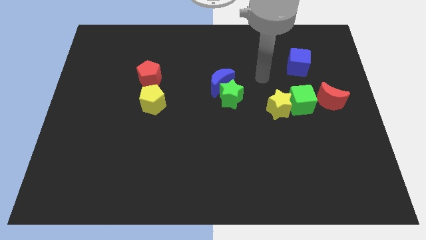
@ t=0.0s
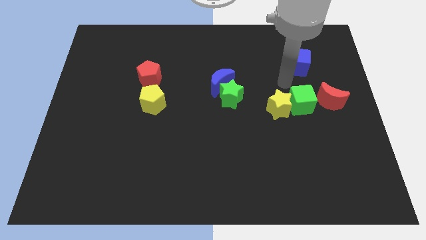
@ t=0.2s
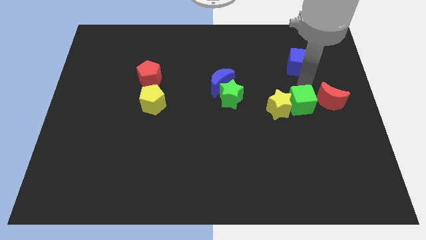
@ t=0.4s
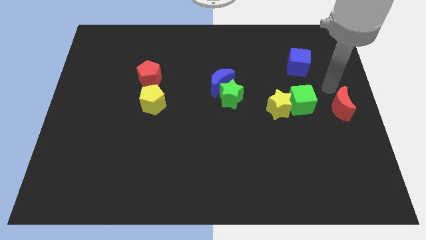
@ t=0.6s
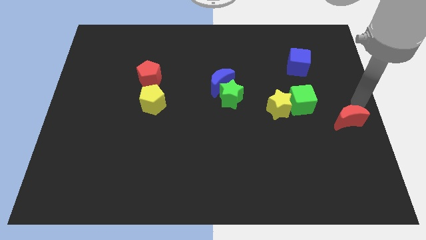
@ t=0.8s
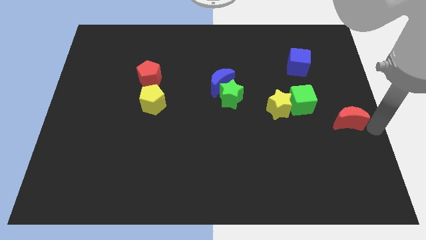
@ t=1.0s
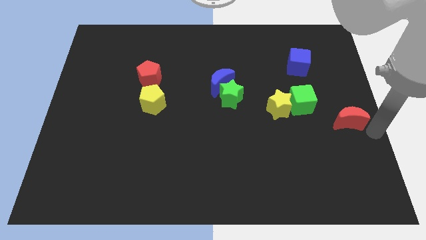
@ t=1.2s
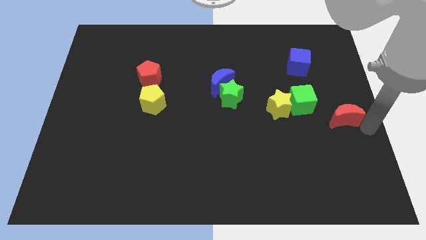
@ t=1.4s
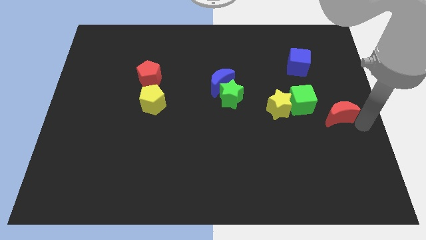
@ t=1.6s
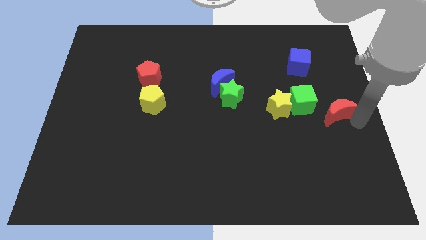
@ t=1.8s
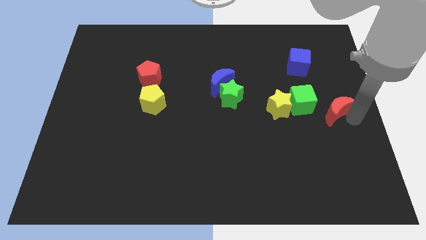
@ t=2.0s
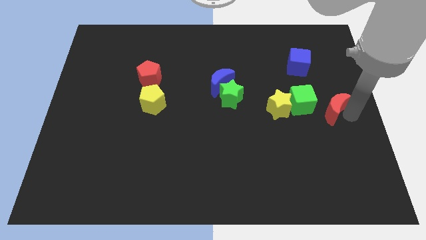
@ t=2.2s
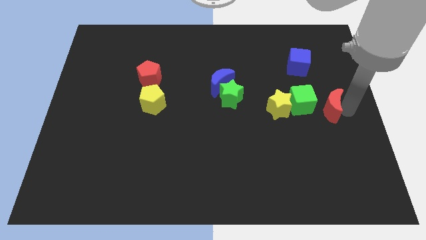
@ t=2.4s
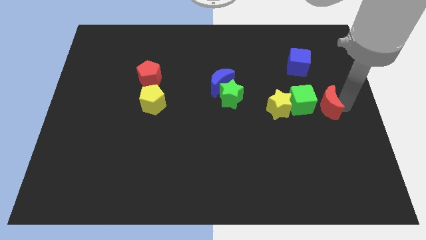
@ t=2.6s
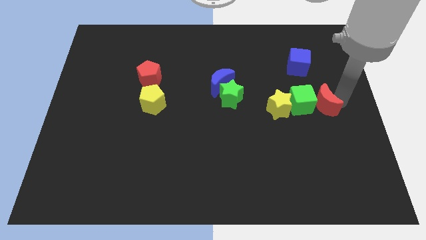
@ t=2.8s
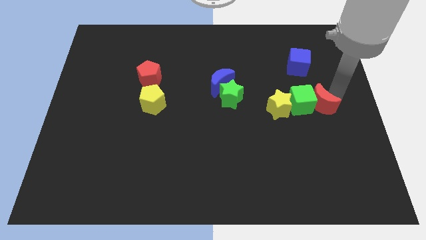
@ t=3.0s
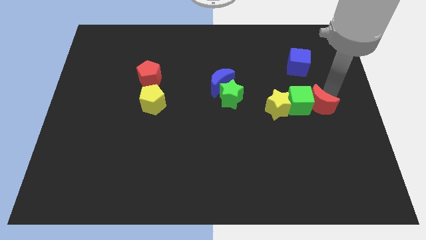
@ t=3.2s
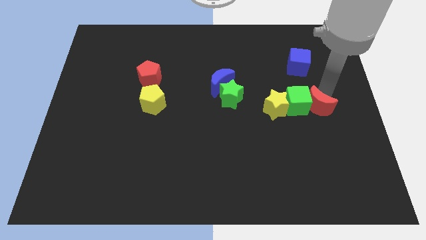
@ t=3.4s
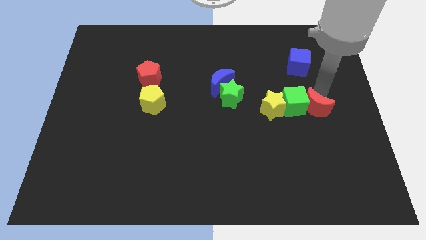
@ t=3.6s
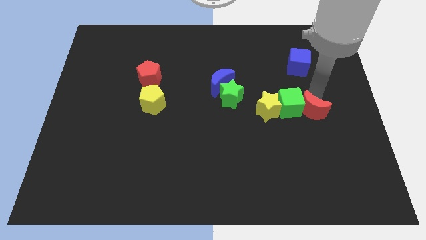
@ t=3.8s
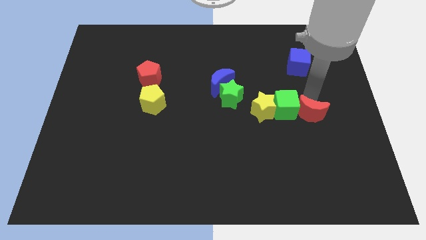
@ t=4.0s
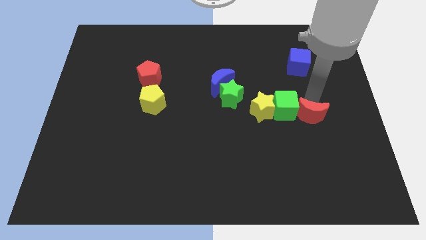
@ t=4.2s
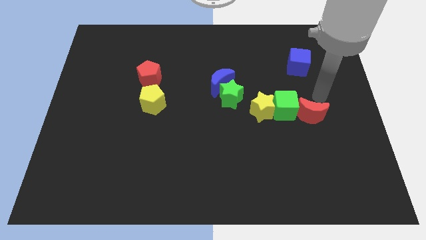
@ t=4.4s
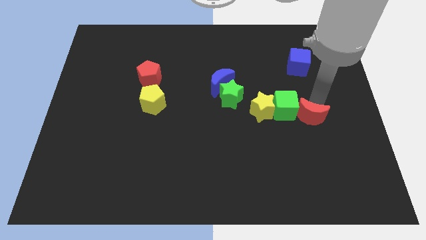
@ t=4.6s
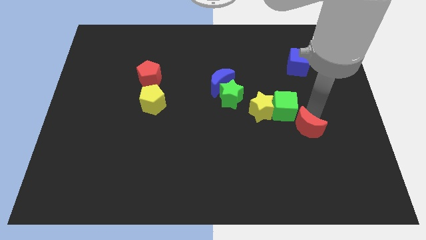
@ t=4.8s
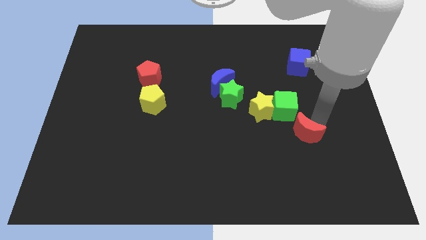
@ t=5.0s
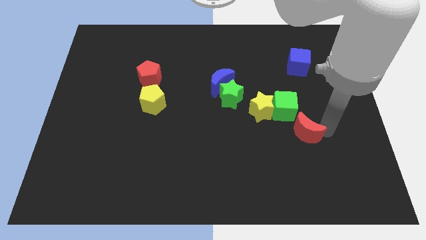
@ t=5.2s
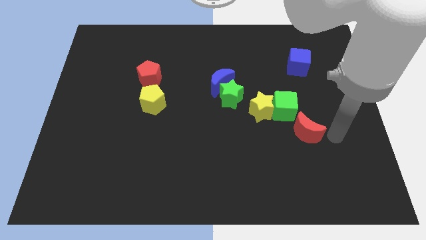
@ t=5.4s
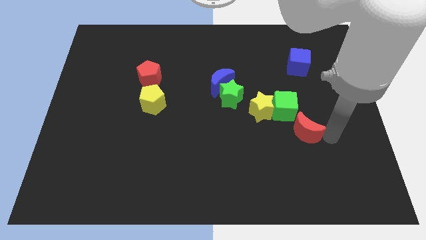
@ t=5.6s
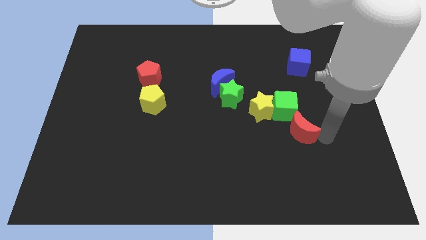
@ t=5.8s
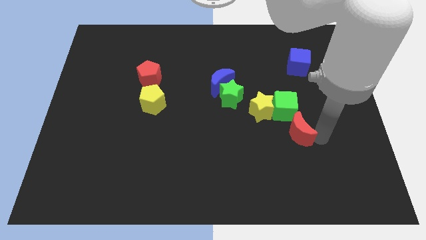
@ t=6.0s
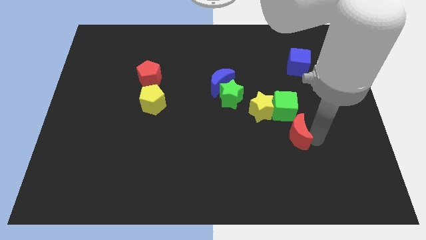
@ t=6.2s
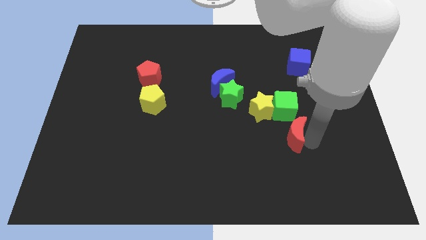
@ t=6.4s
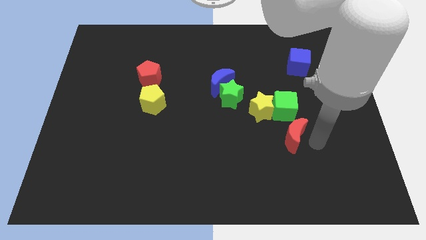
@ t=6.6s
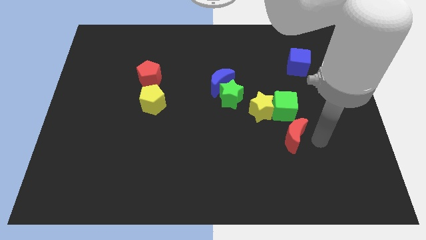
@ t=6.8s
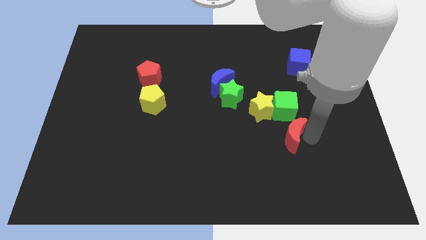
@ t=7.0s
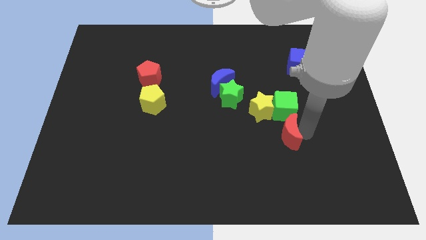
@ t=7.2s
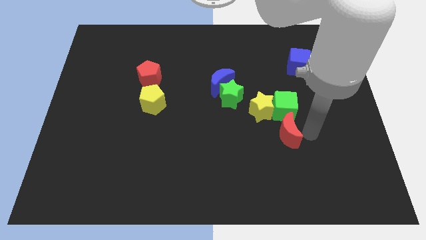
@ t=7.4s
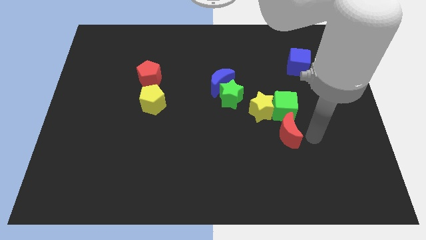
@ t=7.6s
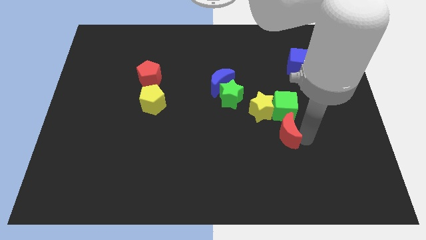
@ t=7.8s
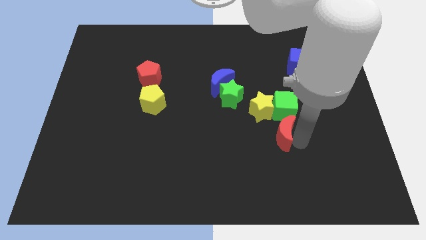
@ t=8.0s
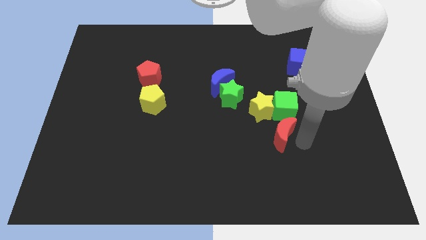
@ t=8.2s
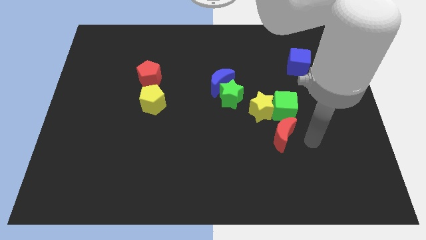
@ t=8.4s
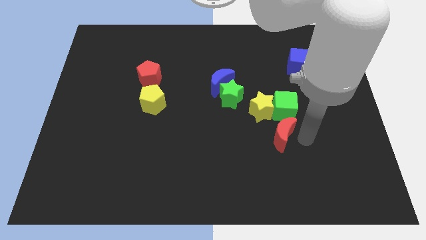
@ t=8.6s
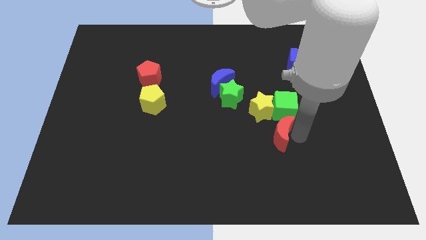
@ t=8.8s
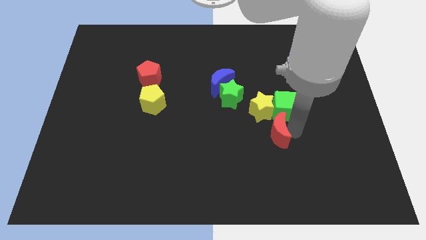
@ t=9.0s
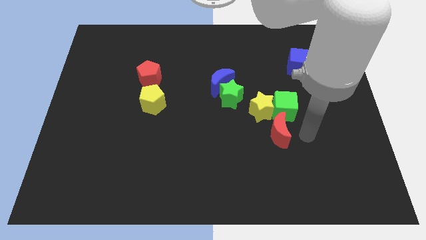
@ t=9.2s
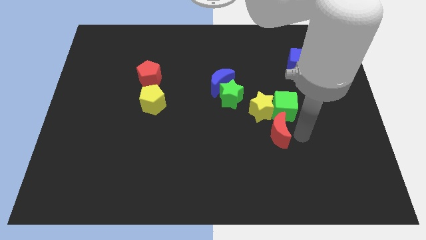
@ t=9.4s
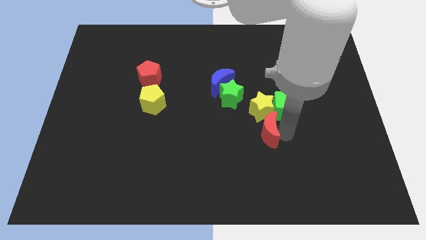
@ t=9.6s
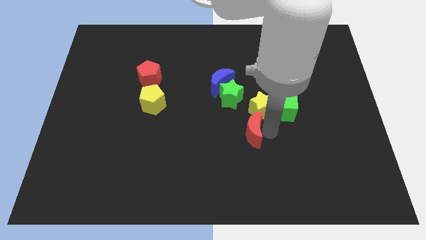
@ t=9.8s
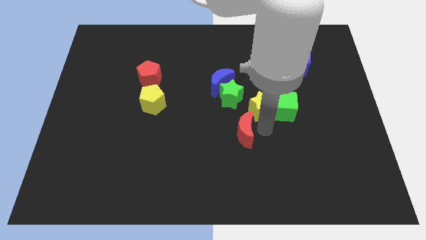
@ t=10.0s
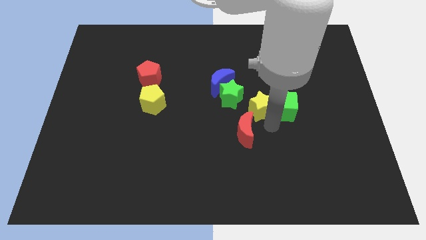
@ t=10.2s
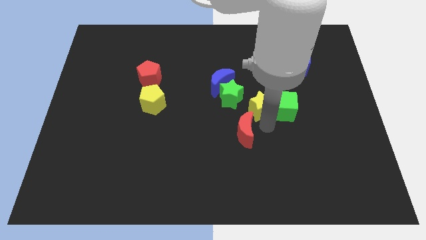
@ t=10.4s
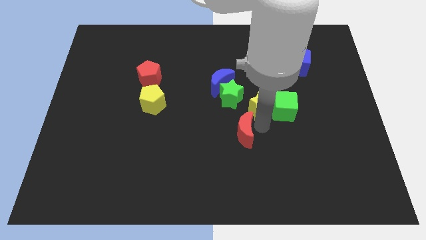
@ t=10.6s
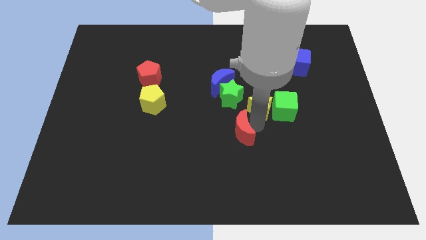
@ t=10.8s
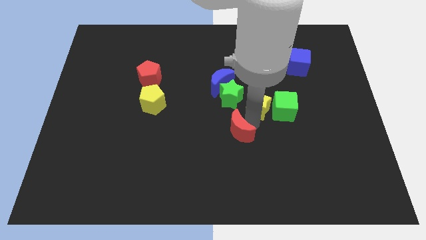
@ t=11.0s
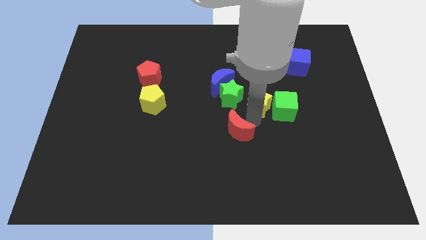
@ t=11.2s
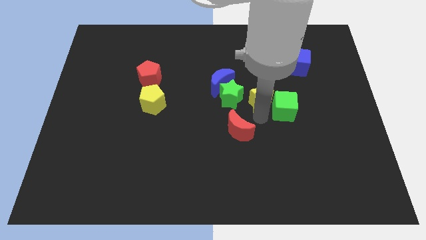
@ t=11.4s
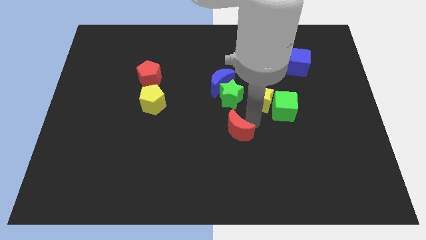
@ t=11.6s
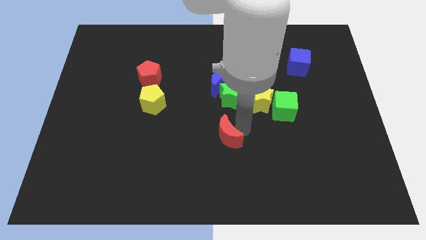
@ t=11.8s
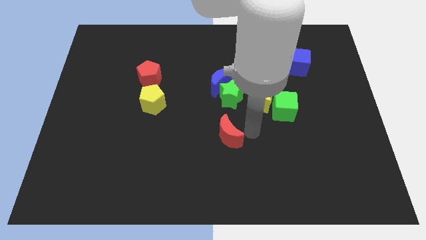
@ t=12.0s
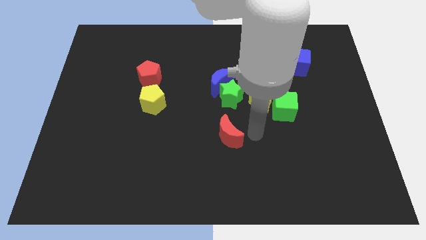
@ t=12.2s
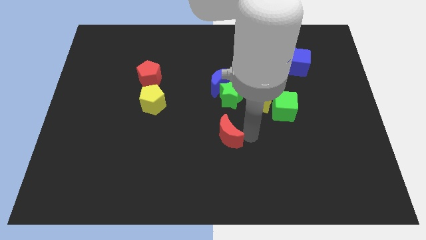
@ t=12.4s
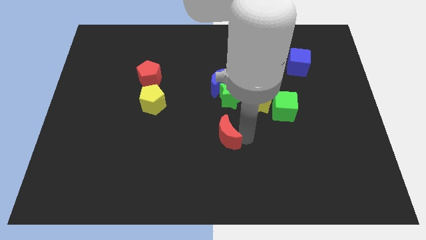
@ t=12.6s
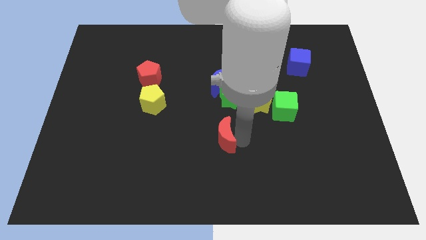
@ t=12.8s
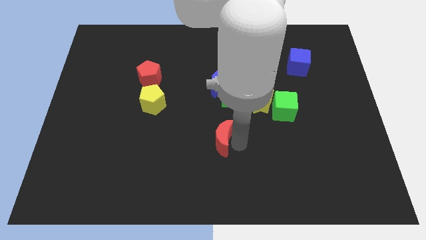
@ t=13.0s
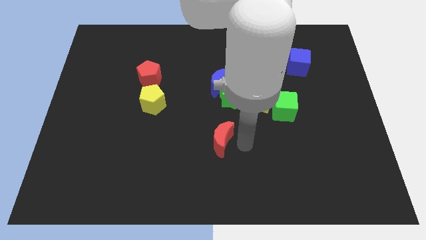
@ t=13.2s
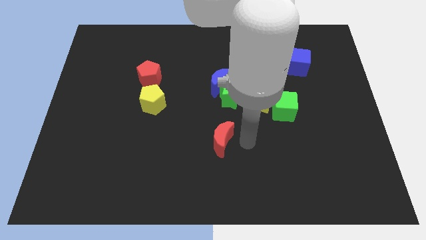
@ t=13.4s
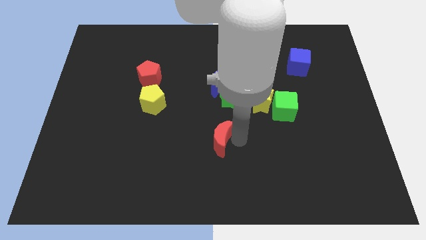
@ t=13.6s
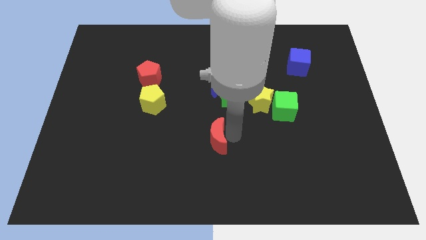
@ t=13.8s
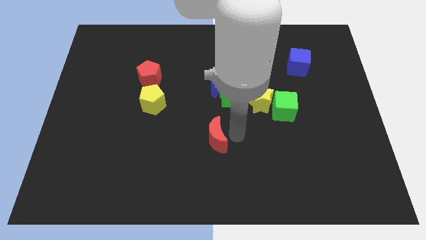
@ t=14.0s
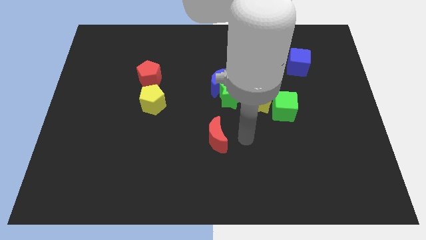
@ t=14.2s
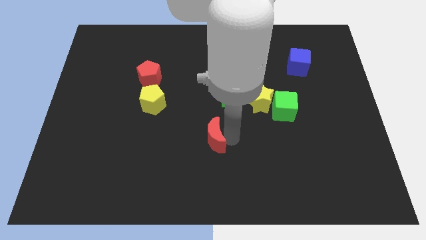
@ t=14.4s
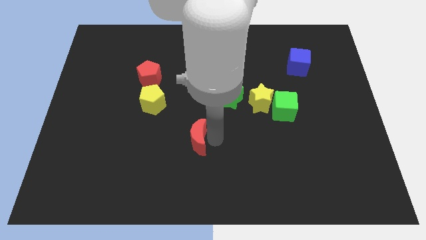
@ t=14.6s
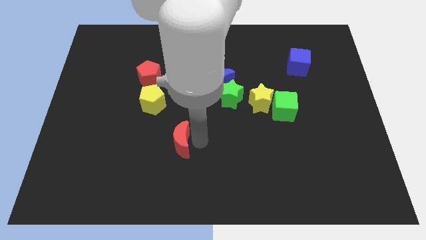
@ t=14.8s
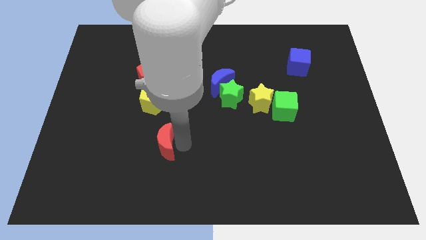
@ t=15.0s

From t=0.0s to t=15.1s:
put the red moon to the bottom of the yellow pentagon
